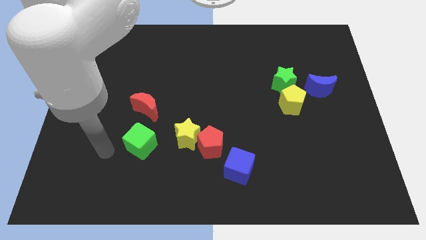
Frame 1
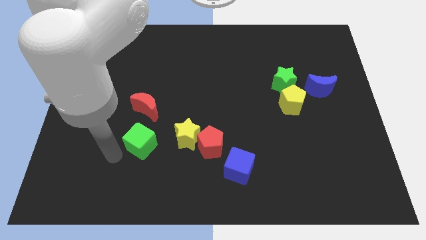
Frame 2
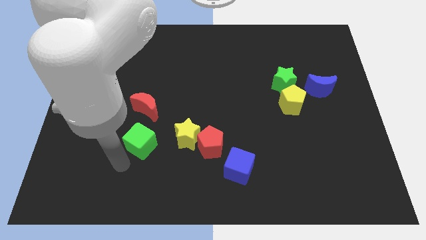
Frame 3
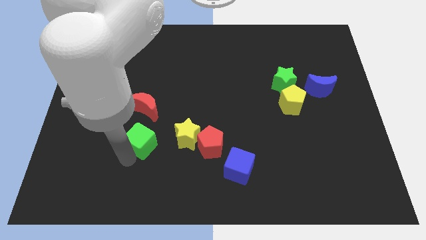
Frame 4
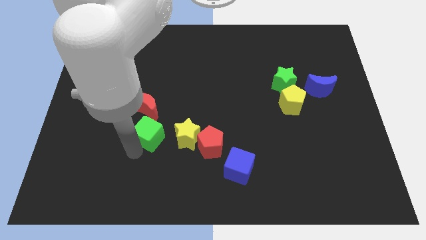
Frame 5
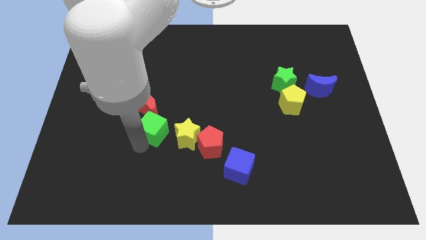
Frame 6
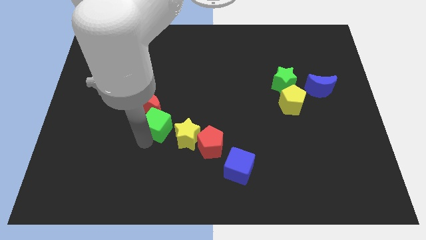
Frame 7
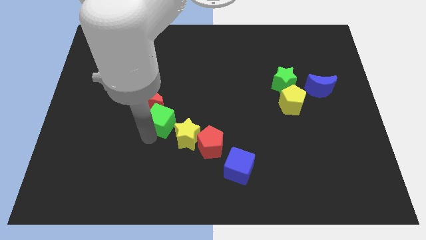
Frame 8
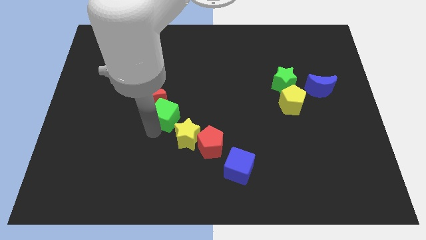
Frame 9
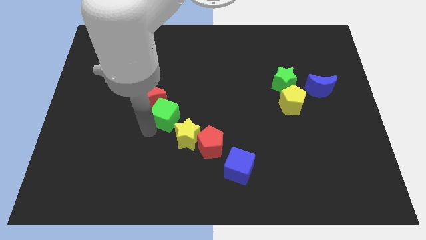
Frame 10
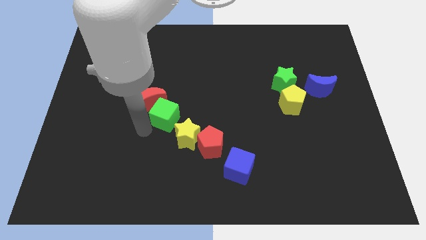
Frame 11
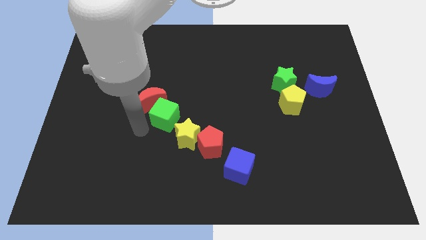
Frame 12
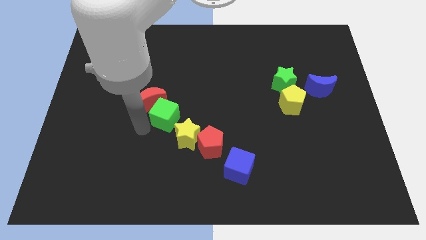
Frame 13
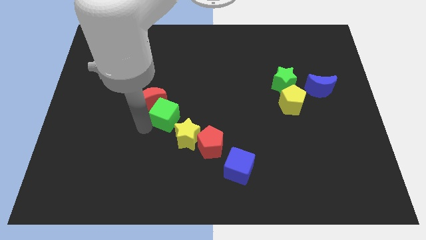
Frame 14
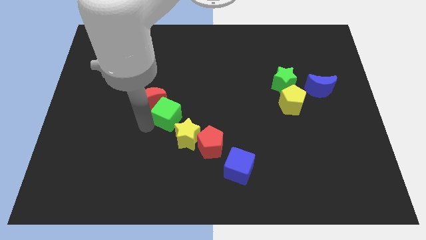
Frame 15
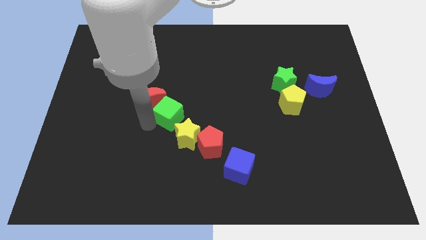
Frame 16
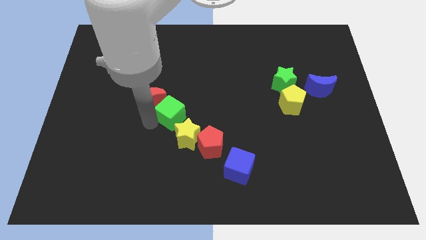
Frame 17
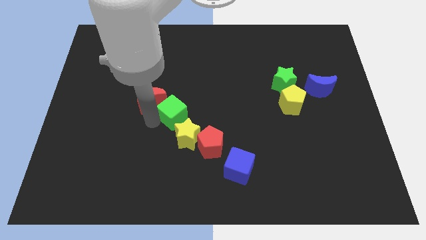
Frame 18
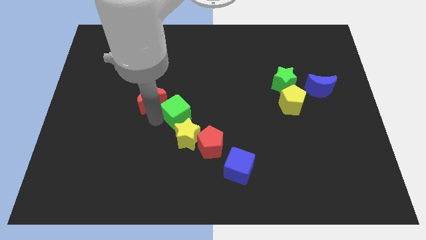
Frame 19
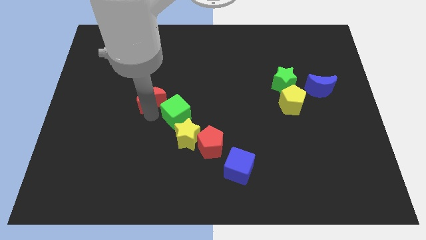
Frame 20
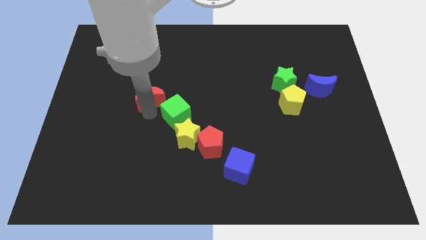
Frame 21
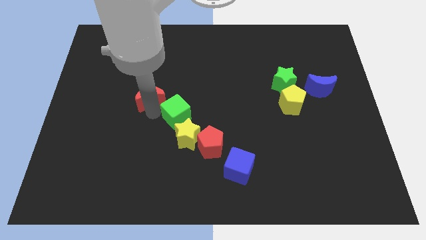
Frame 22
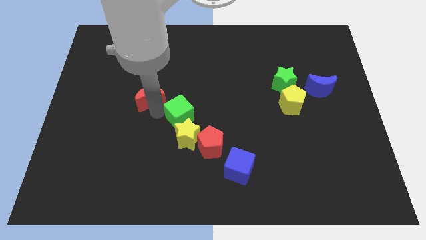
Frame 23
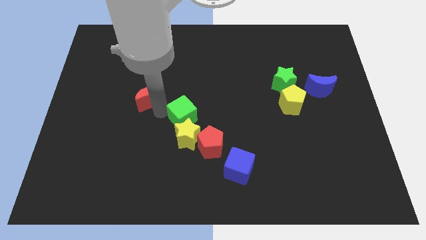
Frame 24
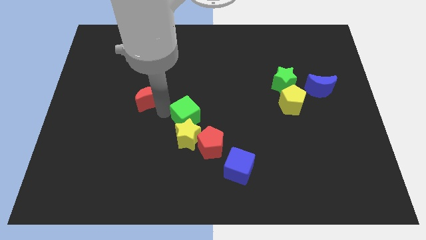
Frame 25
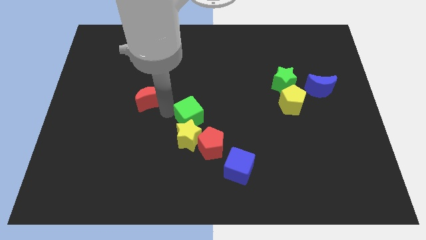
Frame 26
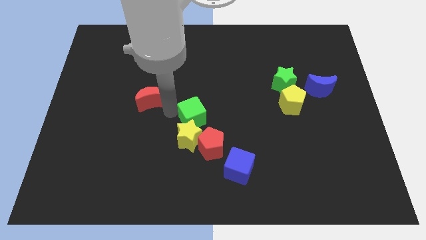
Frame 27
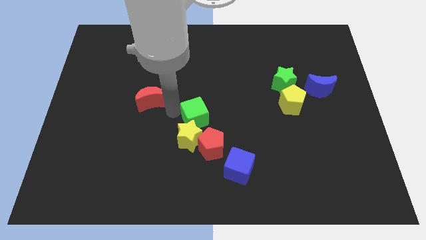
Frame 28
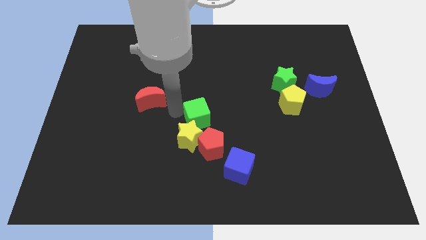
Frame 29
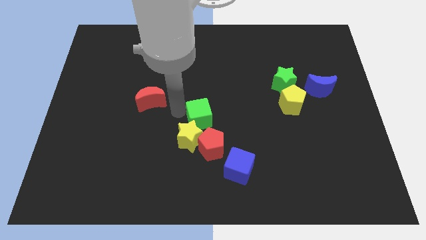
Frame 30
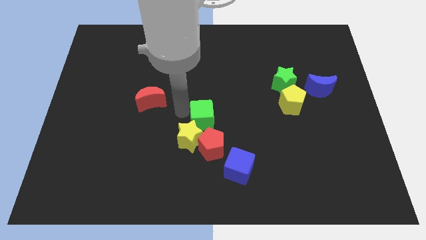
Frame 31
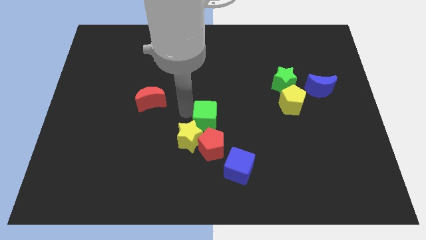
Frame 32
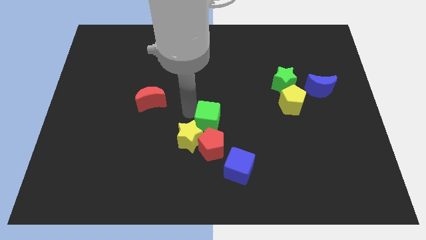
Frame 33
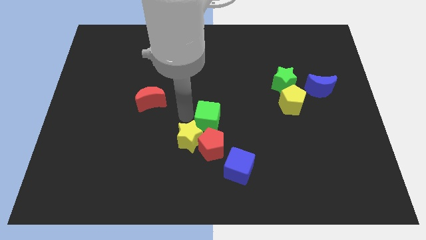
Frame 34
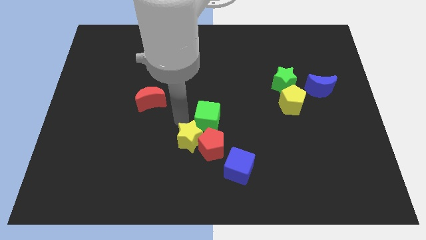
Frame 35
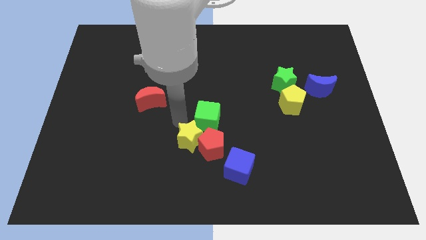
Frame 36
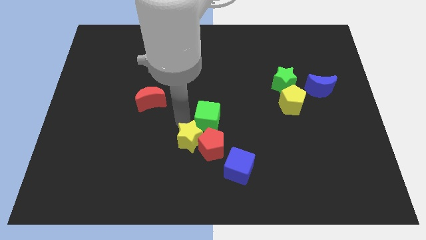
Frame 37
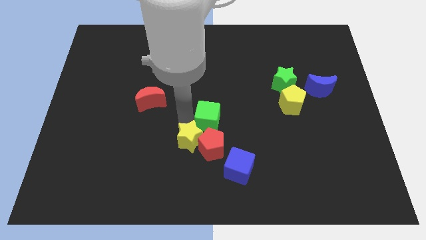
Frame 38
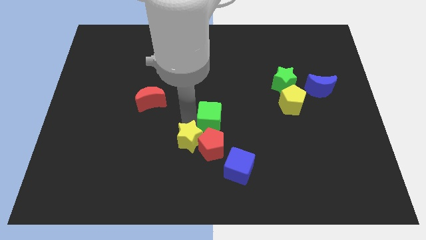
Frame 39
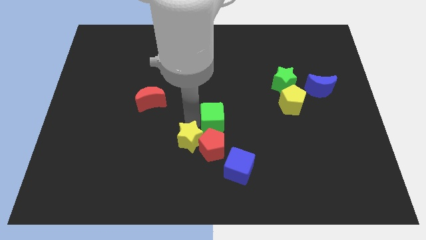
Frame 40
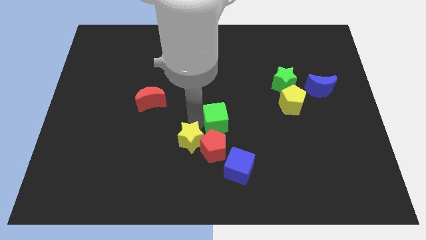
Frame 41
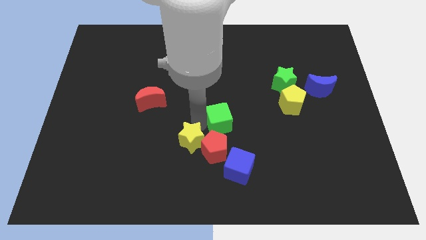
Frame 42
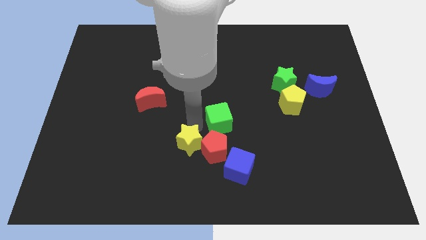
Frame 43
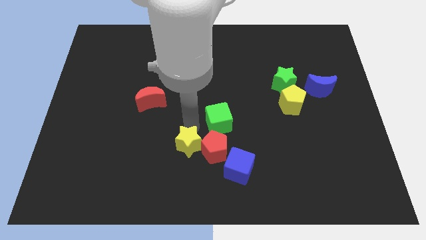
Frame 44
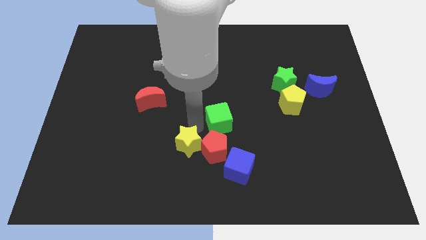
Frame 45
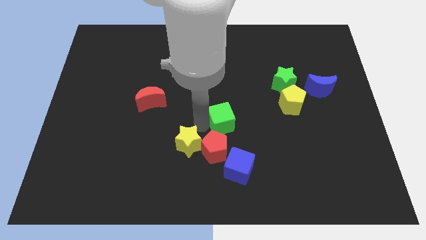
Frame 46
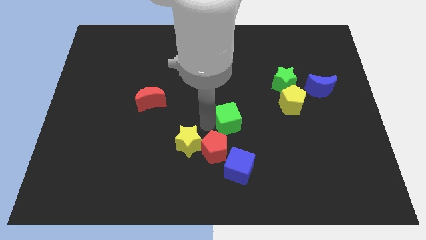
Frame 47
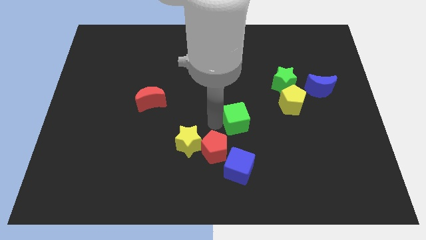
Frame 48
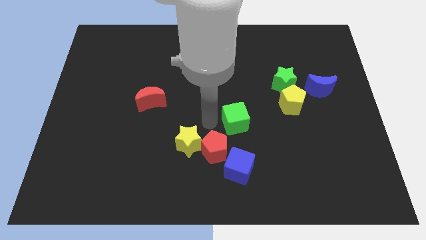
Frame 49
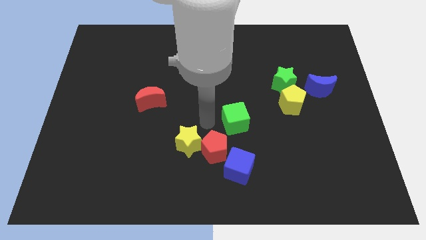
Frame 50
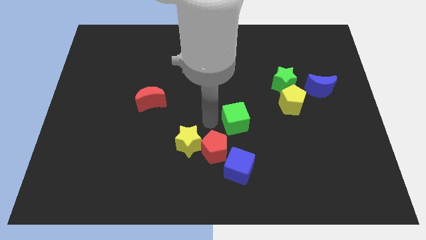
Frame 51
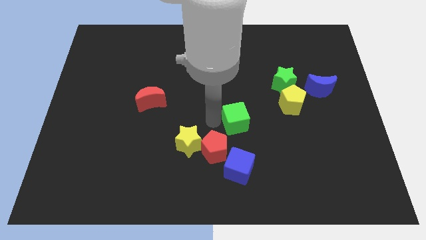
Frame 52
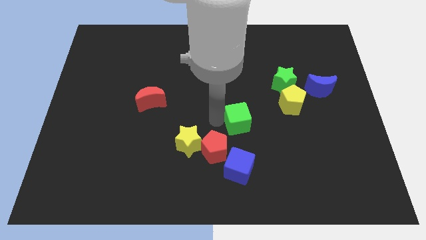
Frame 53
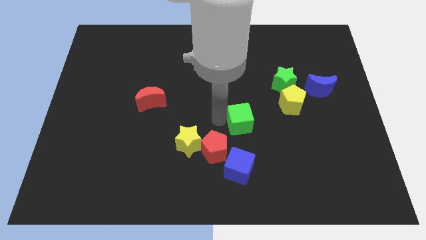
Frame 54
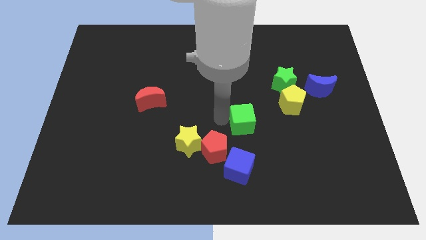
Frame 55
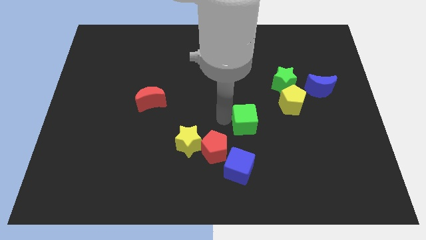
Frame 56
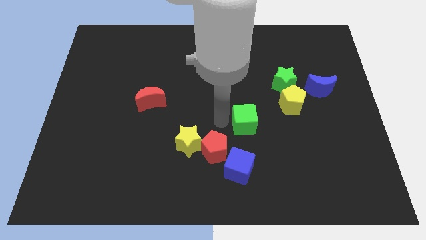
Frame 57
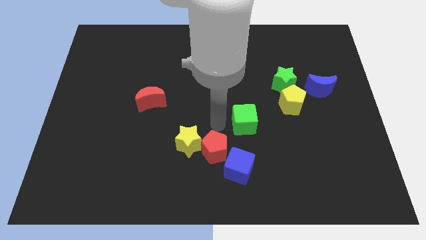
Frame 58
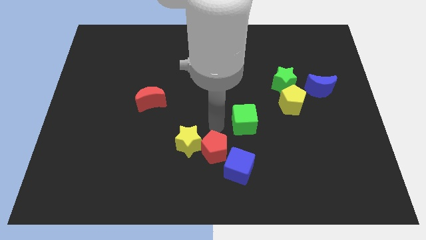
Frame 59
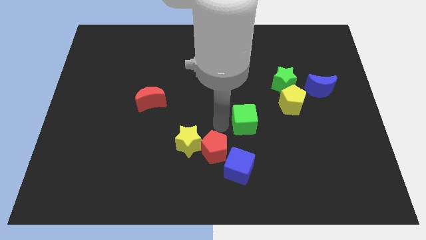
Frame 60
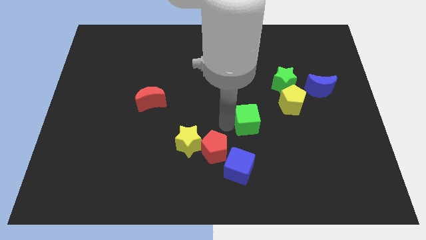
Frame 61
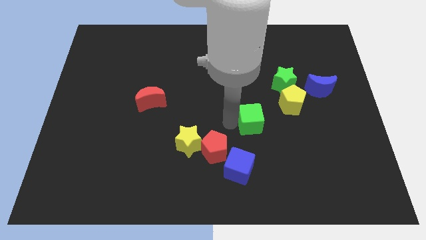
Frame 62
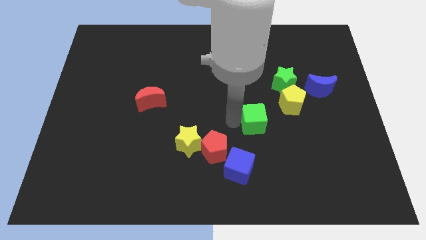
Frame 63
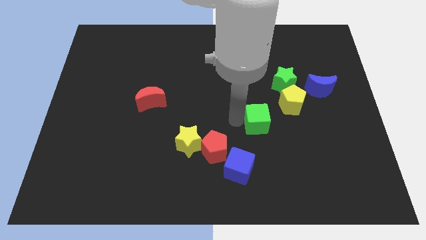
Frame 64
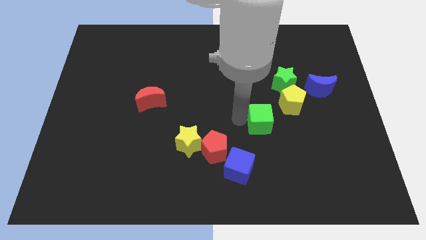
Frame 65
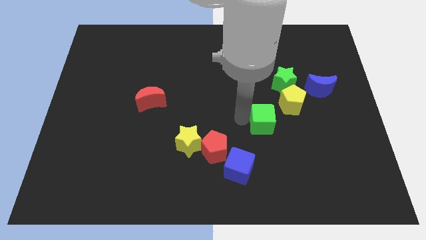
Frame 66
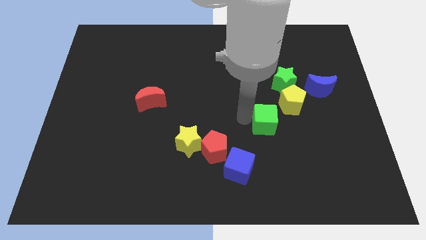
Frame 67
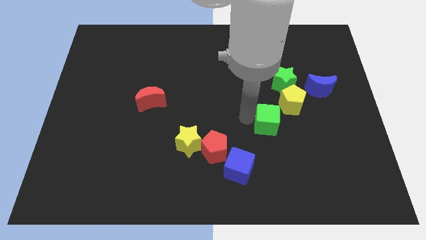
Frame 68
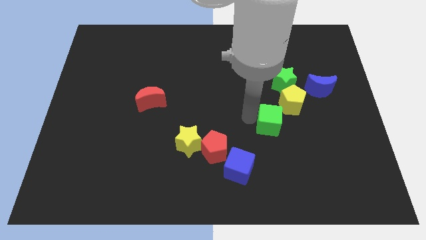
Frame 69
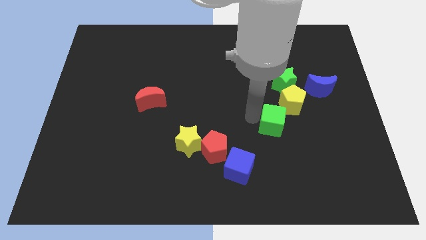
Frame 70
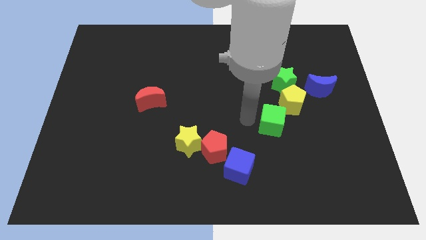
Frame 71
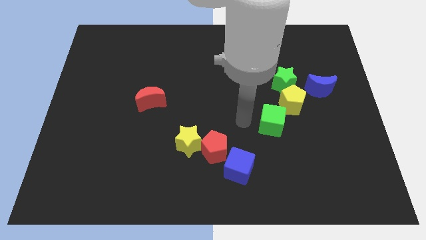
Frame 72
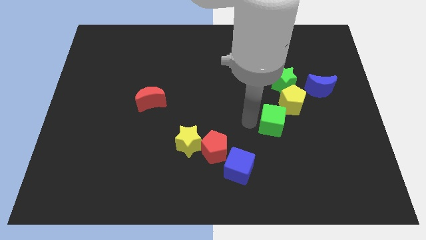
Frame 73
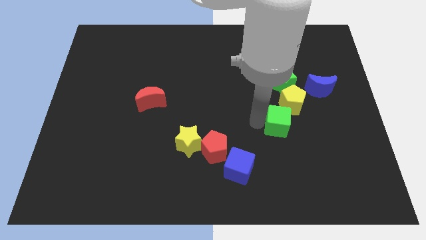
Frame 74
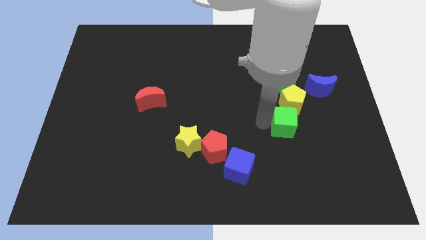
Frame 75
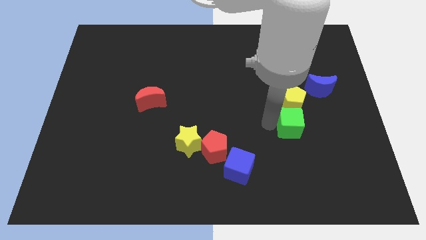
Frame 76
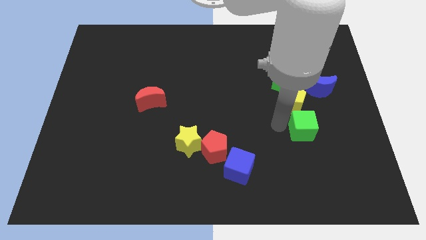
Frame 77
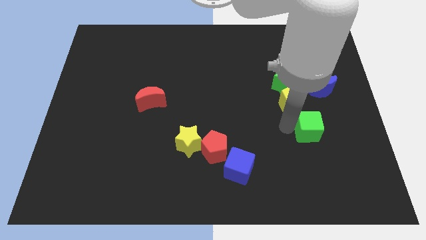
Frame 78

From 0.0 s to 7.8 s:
move the green cube to the bottom side of the blue moon
